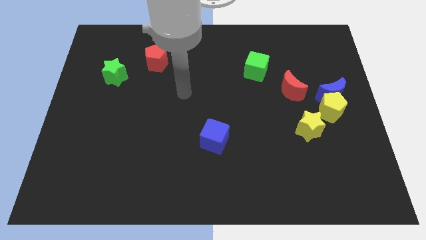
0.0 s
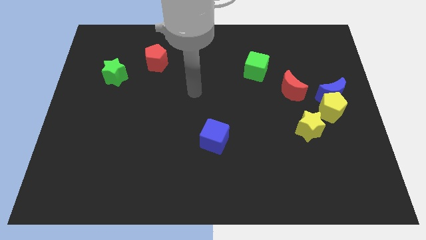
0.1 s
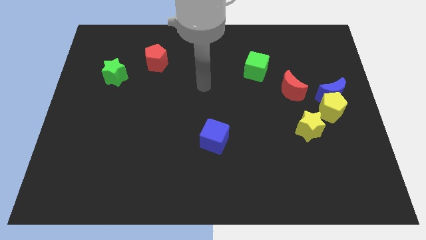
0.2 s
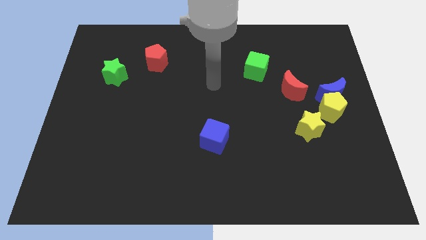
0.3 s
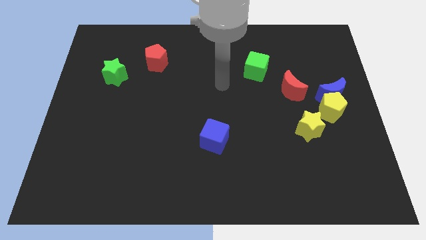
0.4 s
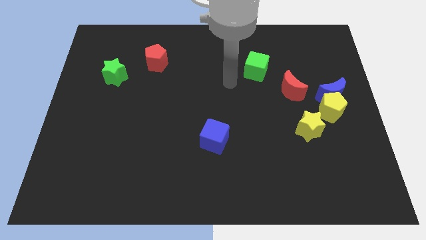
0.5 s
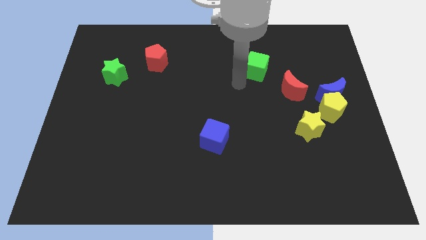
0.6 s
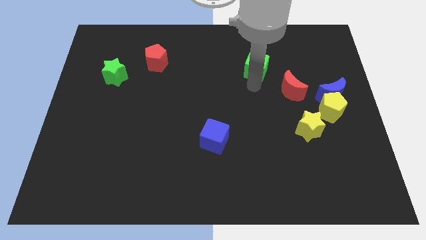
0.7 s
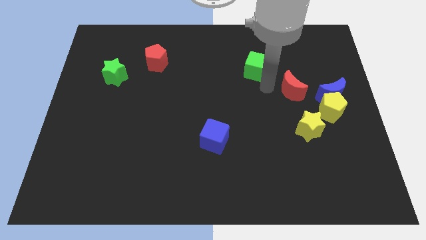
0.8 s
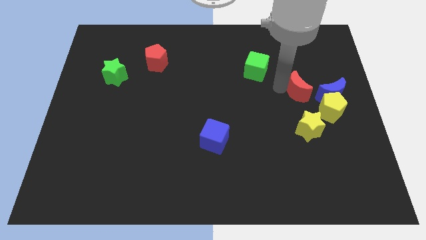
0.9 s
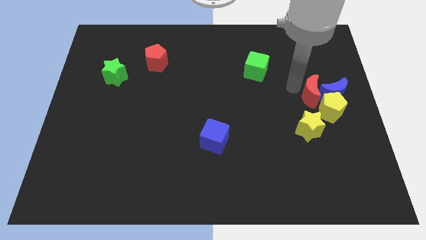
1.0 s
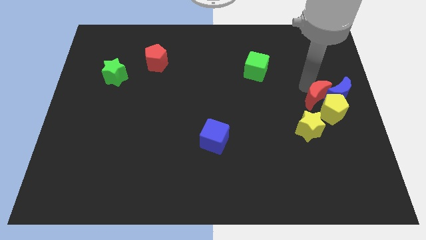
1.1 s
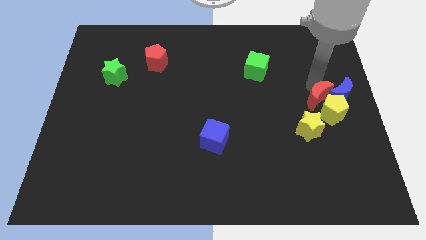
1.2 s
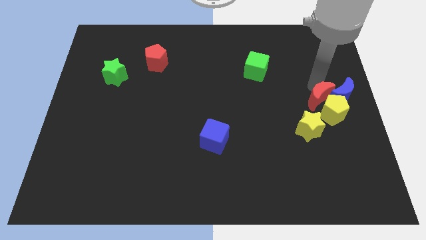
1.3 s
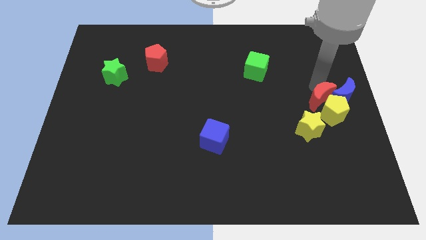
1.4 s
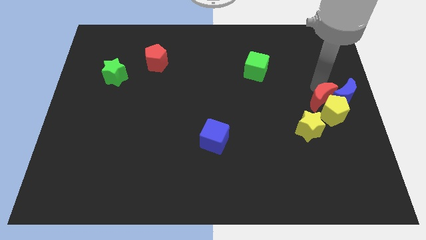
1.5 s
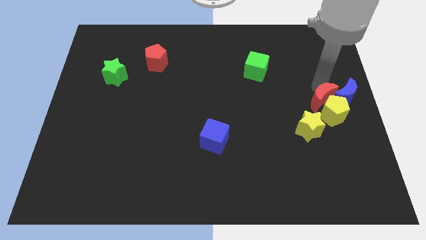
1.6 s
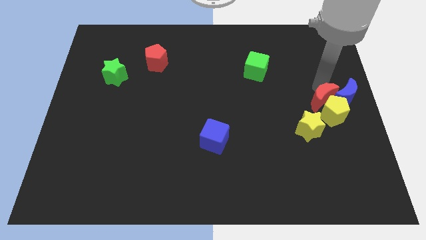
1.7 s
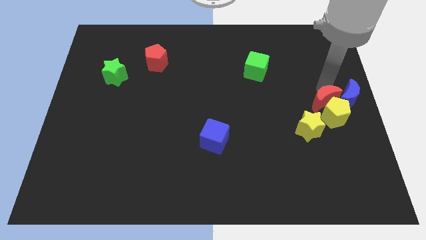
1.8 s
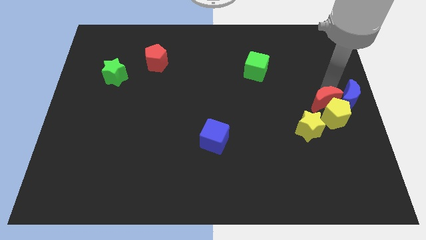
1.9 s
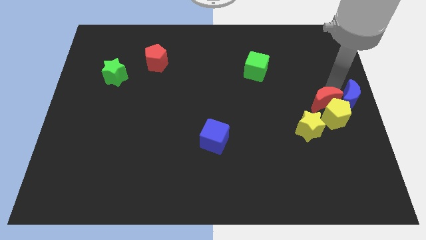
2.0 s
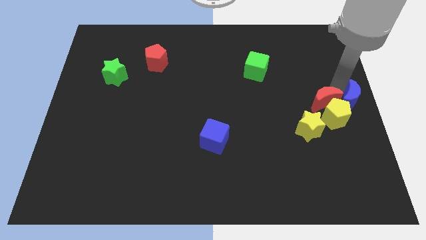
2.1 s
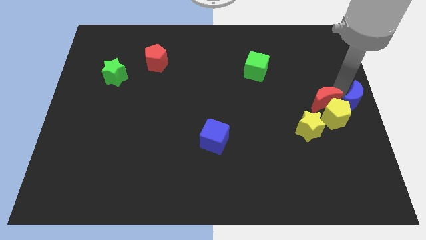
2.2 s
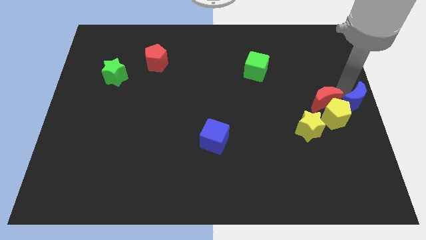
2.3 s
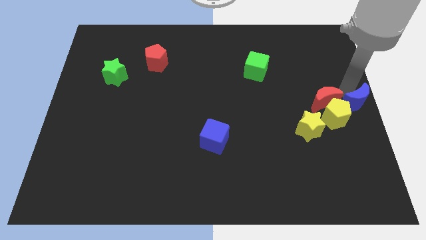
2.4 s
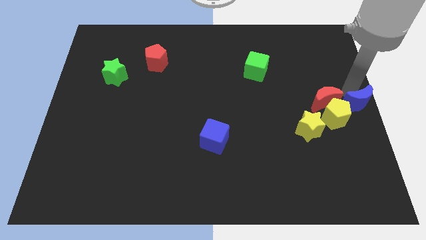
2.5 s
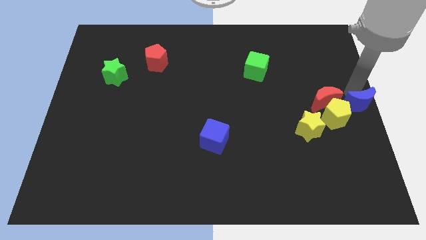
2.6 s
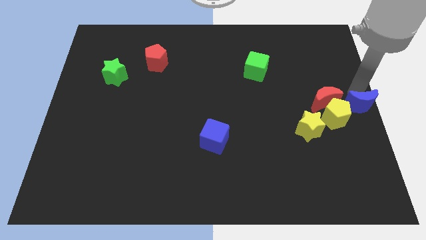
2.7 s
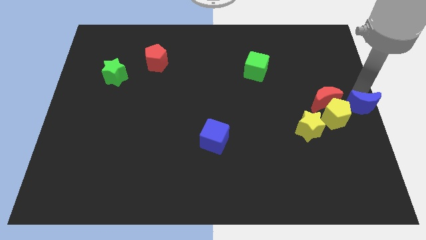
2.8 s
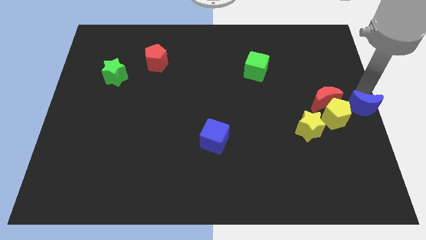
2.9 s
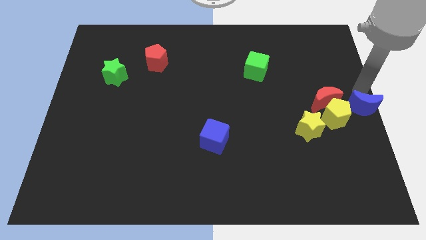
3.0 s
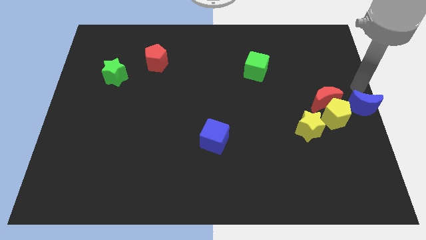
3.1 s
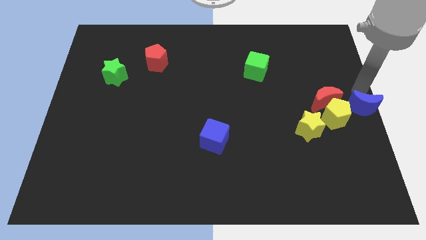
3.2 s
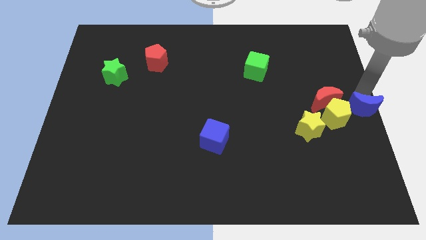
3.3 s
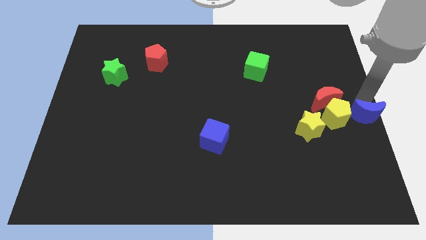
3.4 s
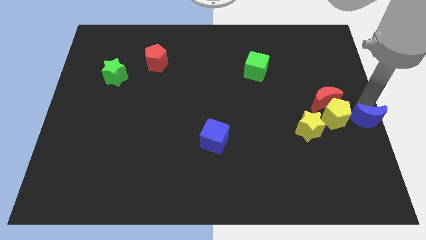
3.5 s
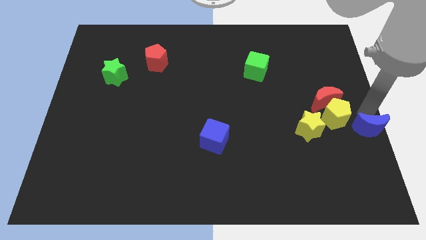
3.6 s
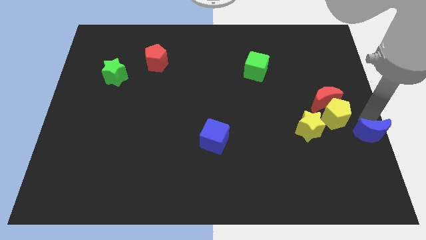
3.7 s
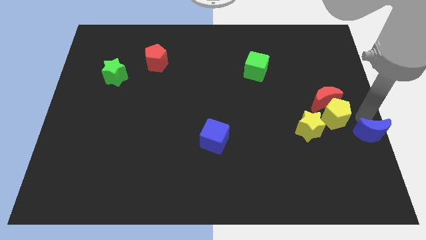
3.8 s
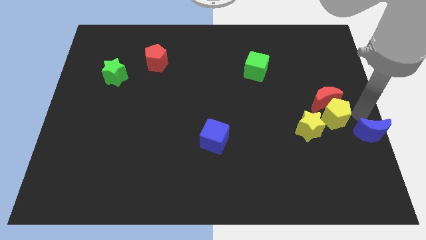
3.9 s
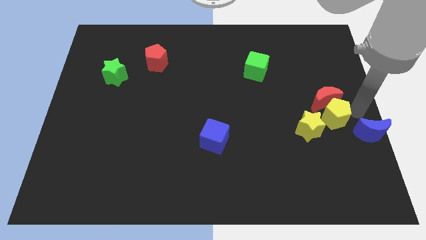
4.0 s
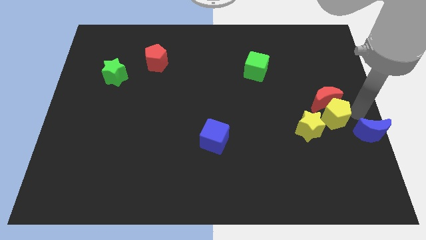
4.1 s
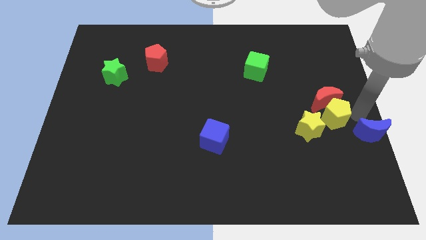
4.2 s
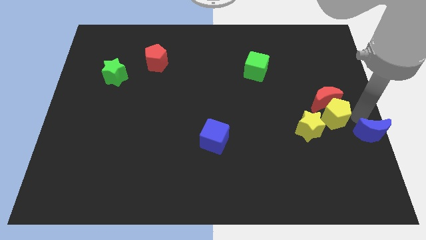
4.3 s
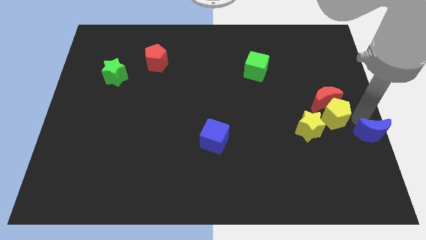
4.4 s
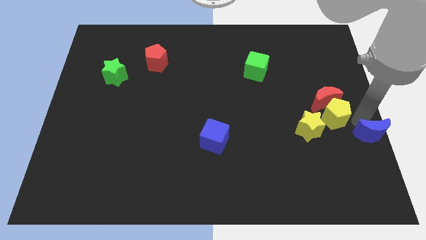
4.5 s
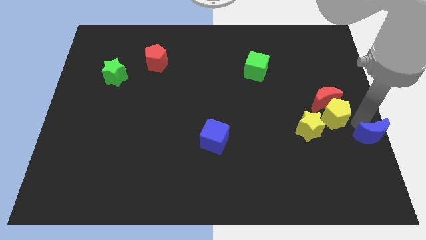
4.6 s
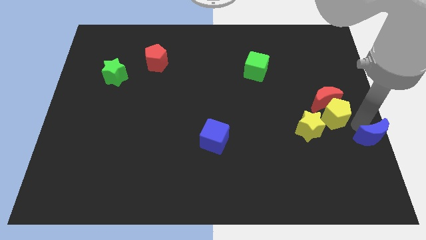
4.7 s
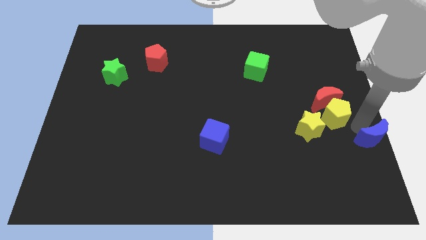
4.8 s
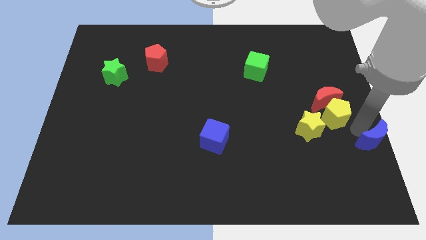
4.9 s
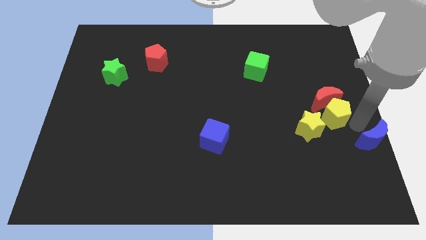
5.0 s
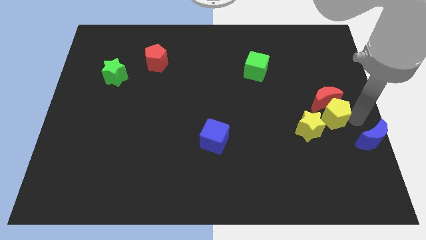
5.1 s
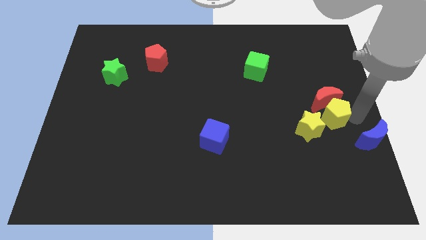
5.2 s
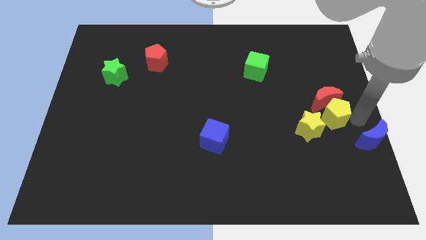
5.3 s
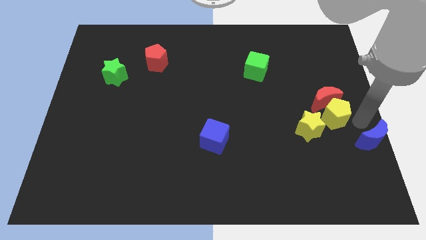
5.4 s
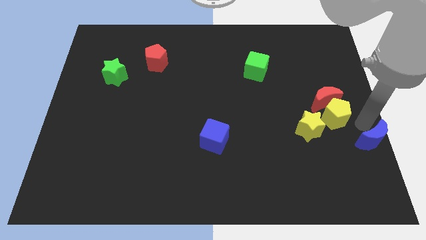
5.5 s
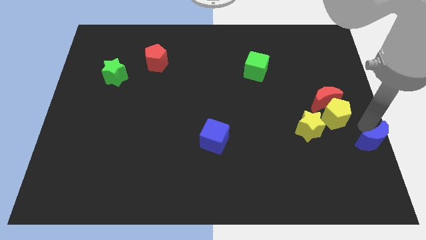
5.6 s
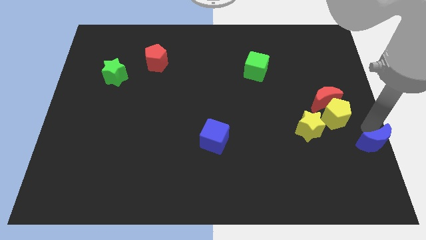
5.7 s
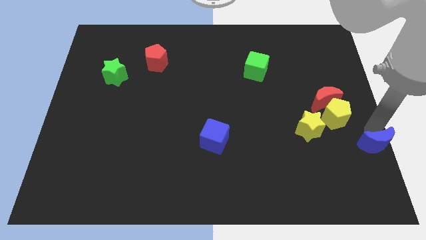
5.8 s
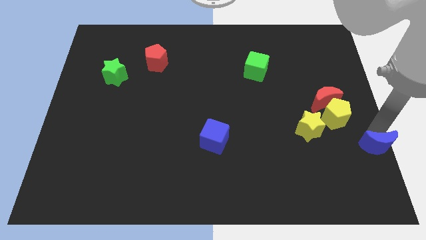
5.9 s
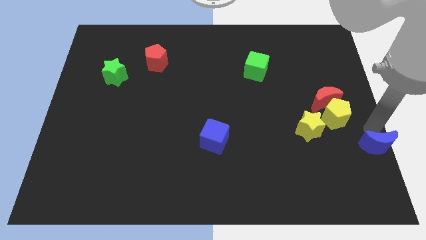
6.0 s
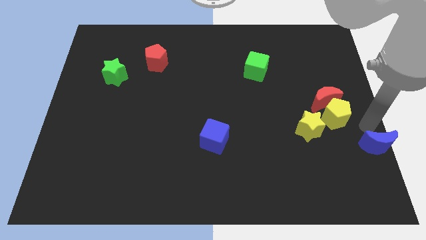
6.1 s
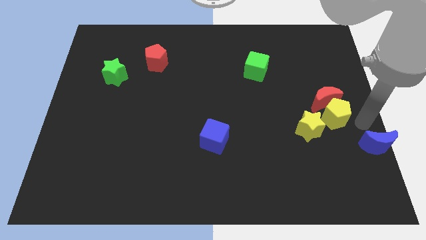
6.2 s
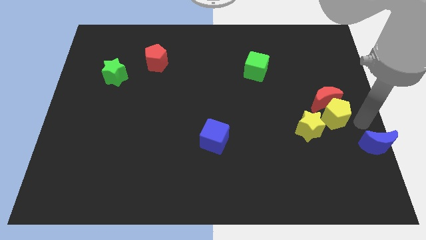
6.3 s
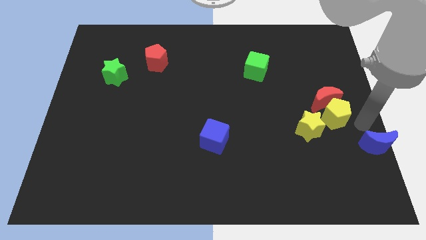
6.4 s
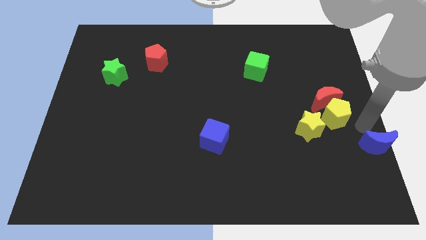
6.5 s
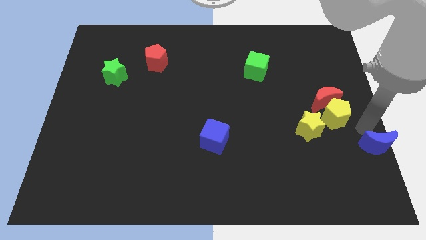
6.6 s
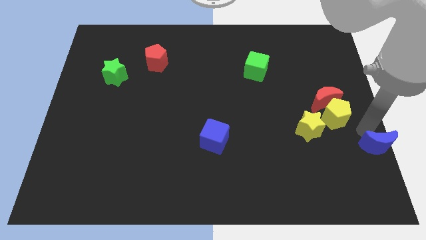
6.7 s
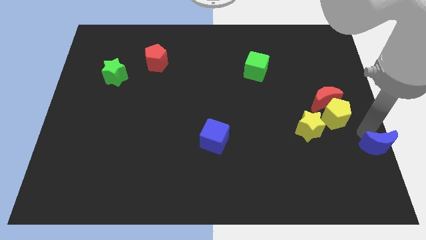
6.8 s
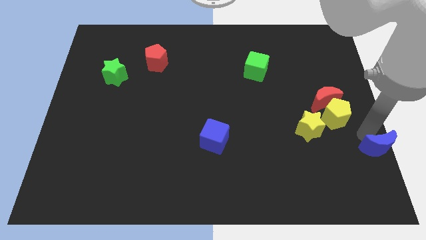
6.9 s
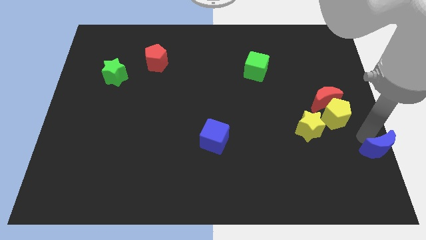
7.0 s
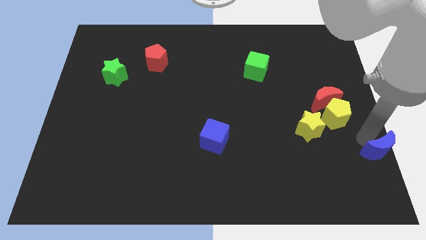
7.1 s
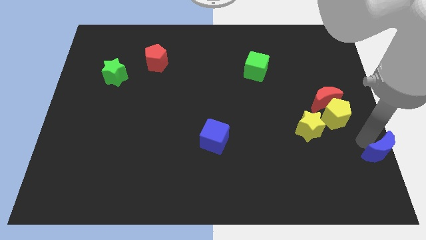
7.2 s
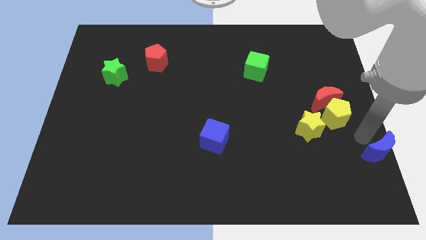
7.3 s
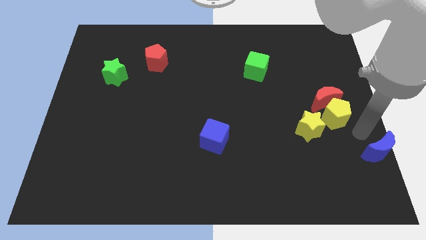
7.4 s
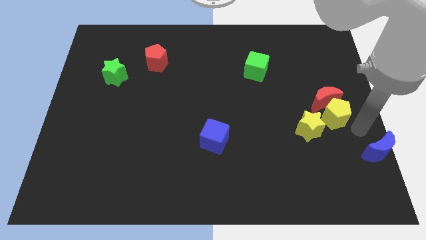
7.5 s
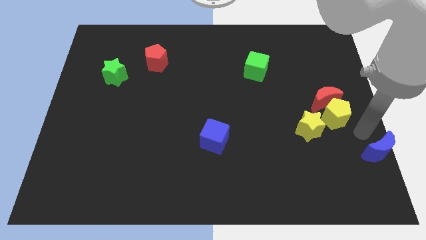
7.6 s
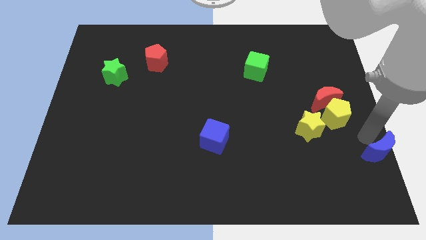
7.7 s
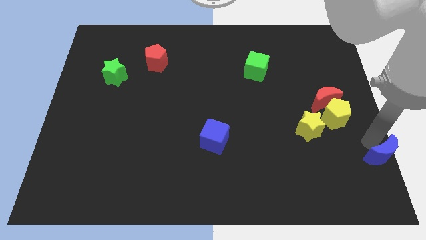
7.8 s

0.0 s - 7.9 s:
move the blue moon to the bottom right corner
